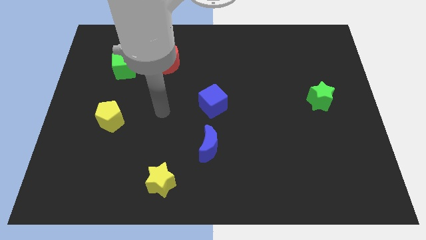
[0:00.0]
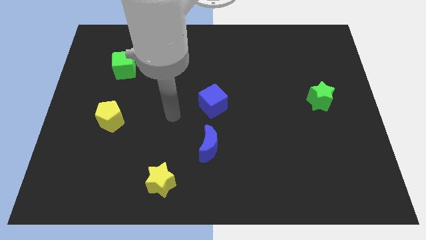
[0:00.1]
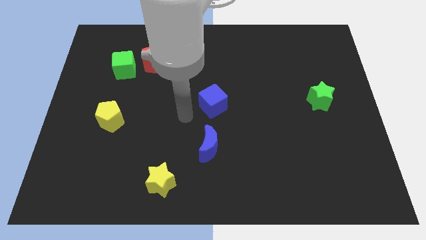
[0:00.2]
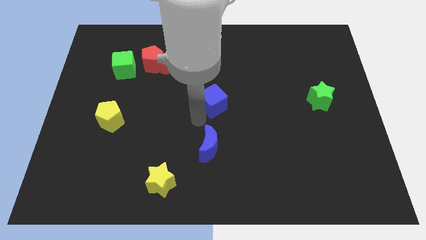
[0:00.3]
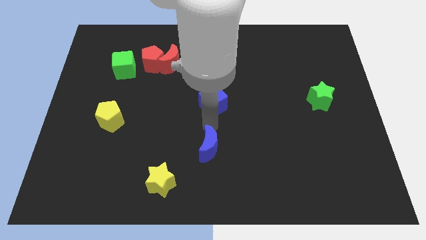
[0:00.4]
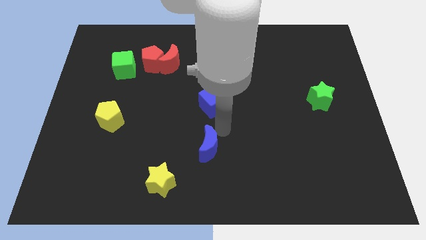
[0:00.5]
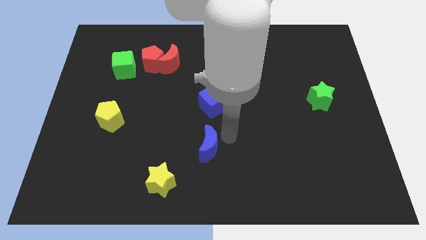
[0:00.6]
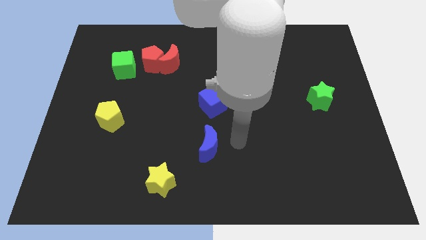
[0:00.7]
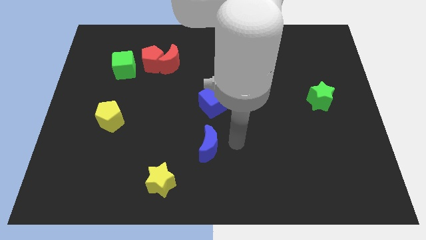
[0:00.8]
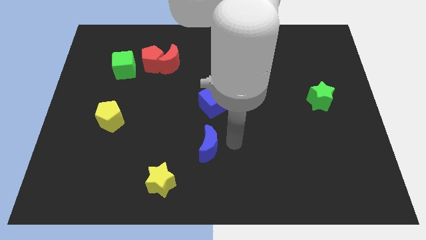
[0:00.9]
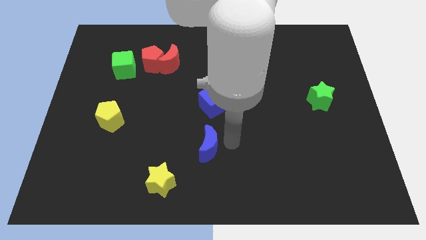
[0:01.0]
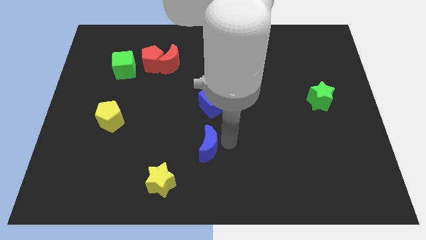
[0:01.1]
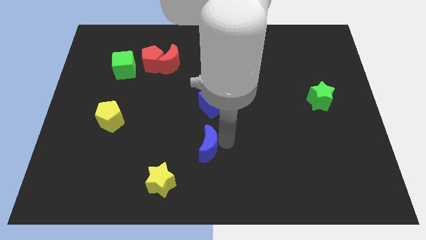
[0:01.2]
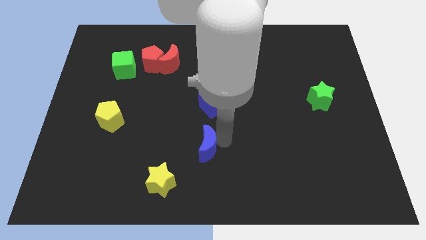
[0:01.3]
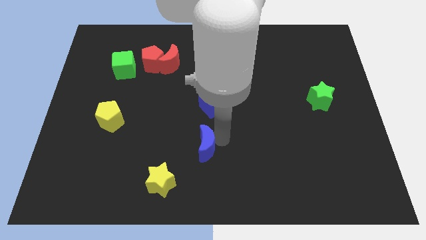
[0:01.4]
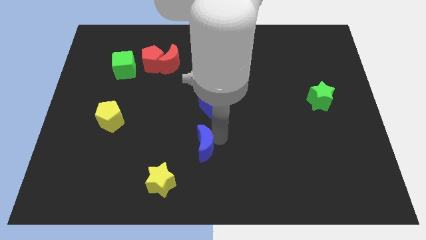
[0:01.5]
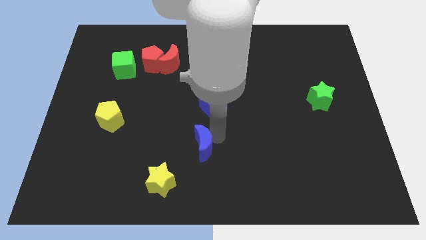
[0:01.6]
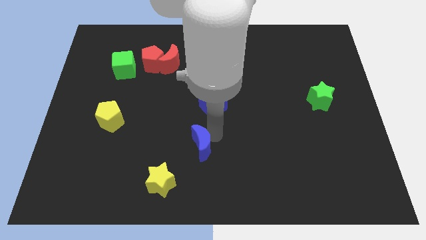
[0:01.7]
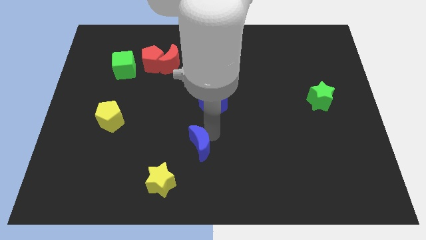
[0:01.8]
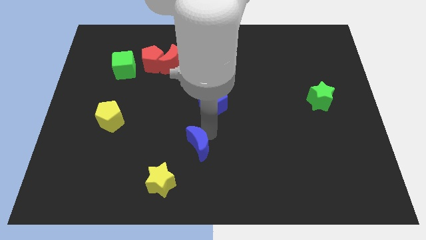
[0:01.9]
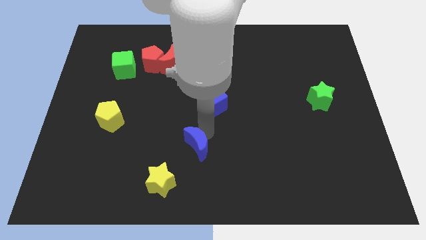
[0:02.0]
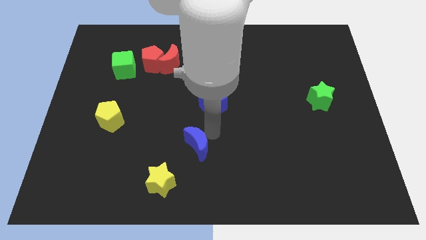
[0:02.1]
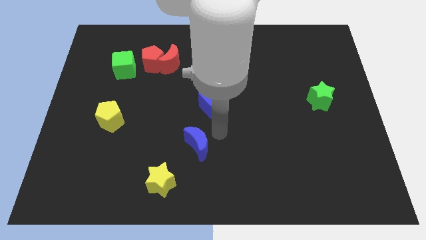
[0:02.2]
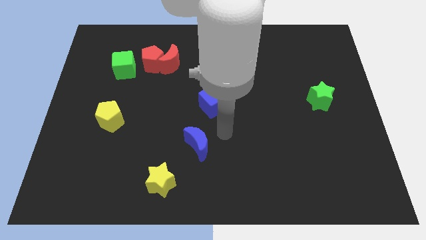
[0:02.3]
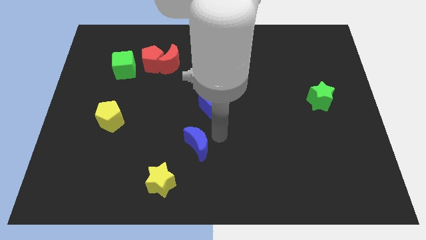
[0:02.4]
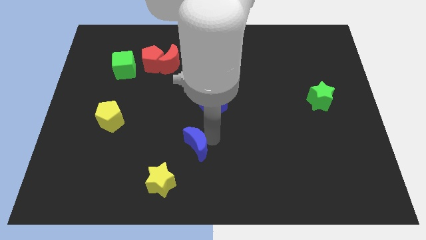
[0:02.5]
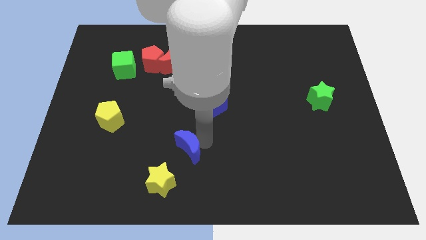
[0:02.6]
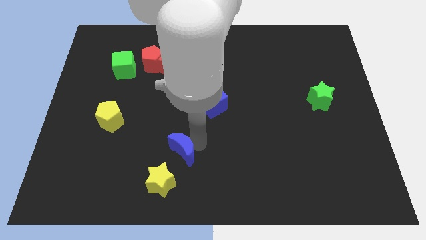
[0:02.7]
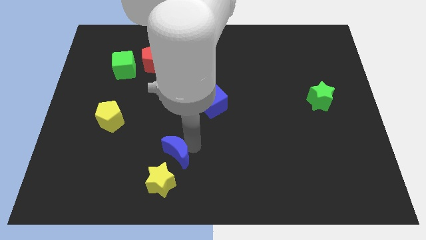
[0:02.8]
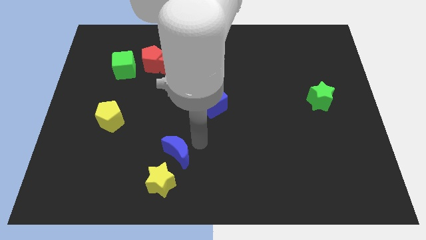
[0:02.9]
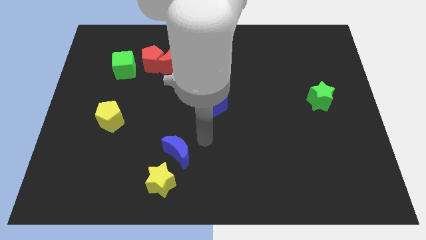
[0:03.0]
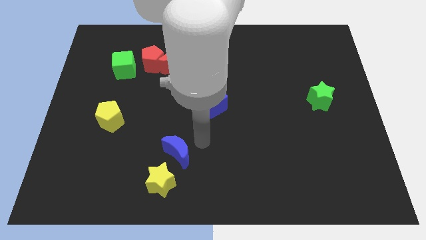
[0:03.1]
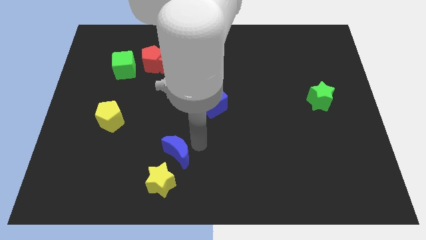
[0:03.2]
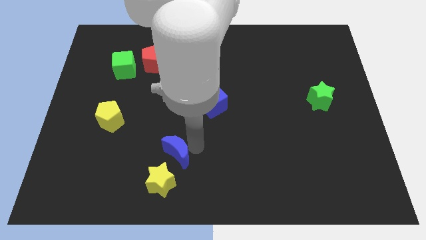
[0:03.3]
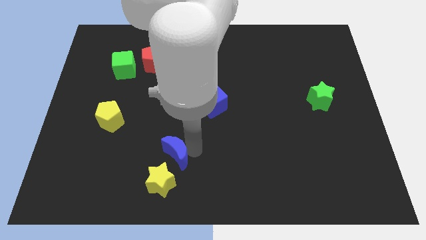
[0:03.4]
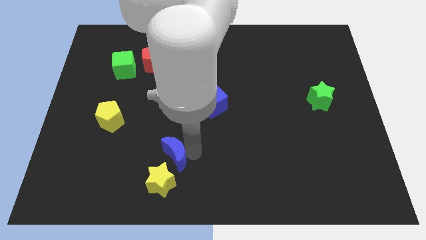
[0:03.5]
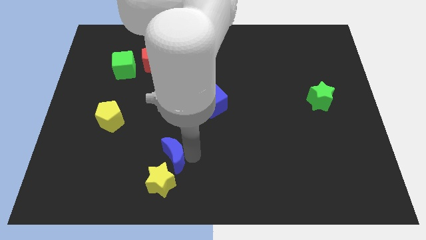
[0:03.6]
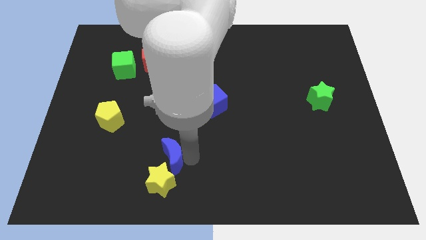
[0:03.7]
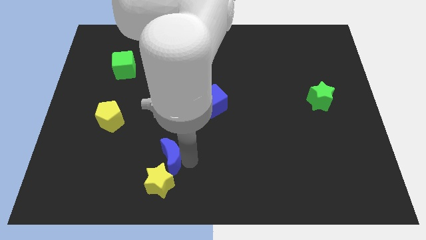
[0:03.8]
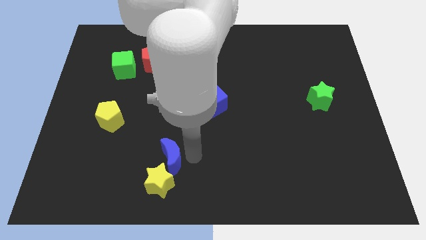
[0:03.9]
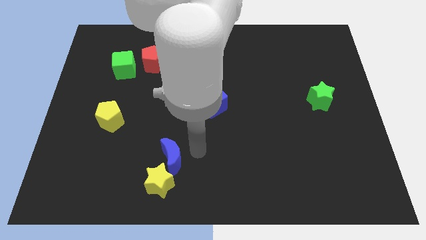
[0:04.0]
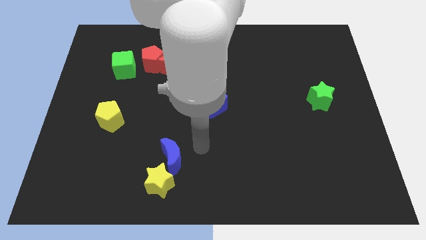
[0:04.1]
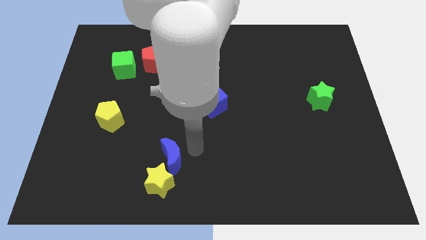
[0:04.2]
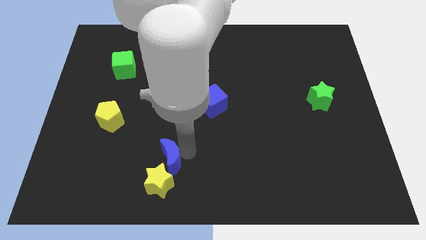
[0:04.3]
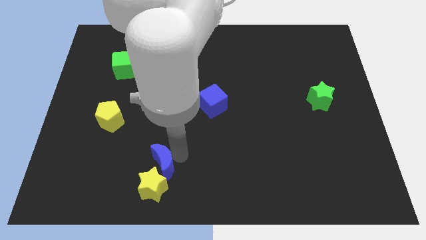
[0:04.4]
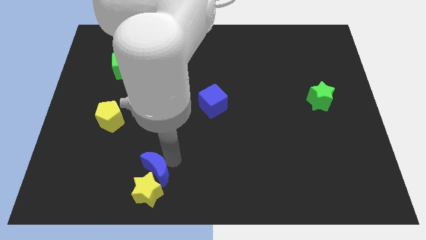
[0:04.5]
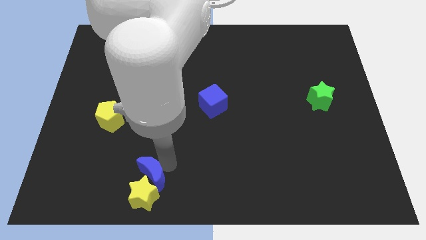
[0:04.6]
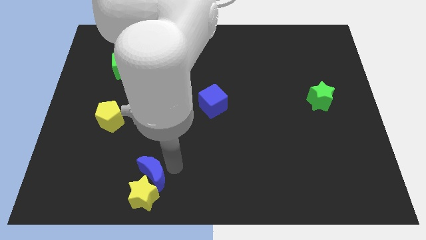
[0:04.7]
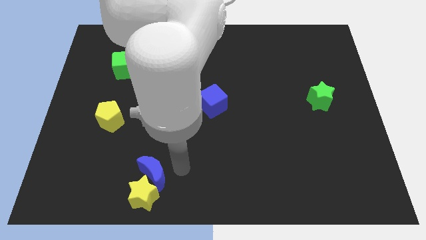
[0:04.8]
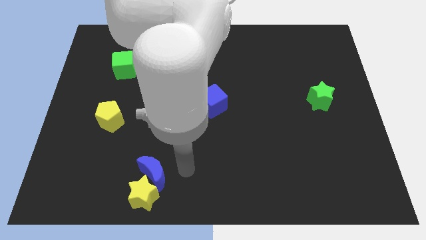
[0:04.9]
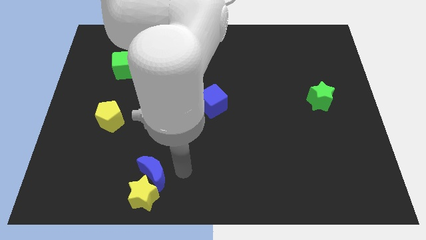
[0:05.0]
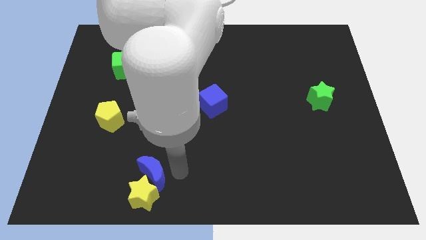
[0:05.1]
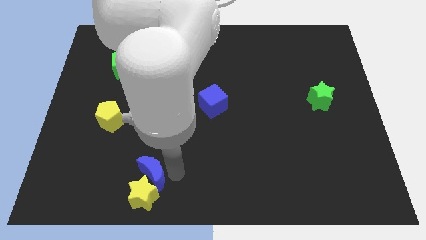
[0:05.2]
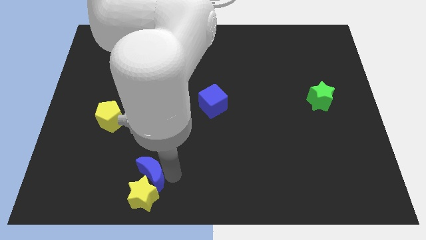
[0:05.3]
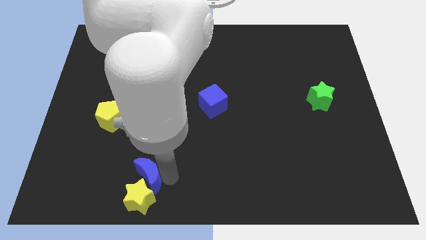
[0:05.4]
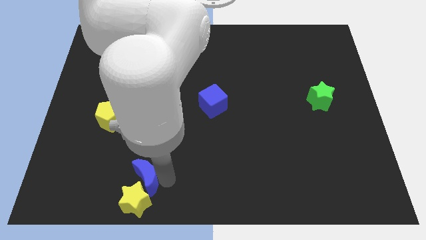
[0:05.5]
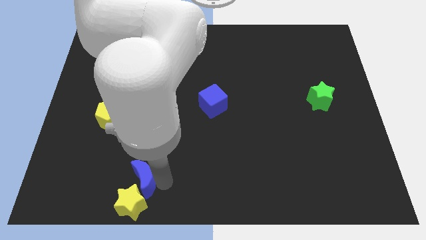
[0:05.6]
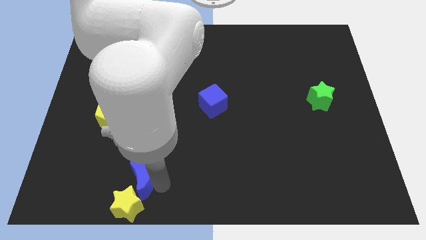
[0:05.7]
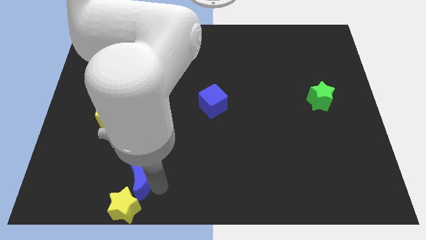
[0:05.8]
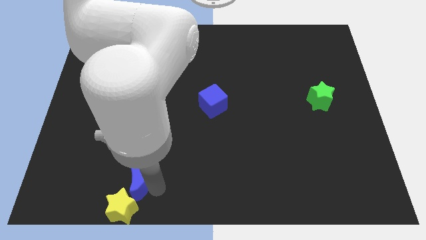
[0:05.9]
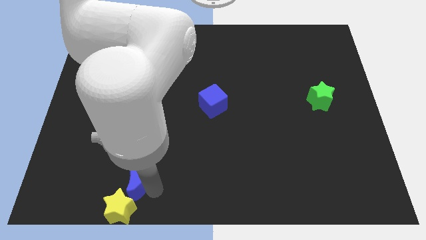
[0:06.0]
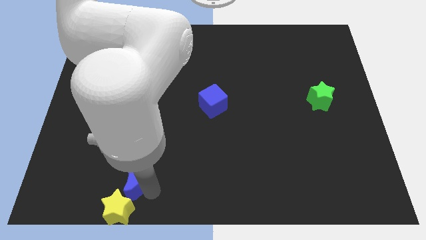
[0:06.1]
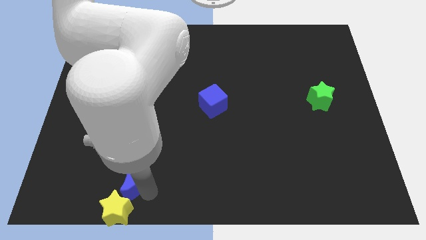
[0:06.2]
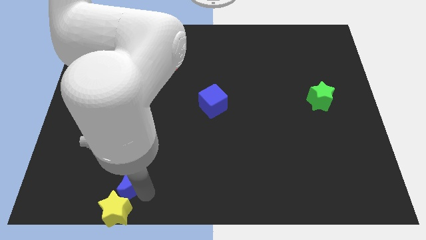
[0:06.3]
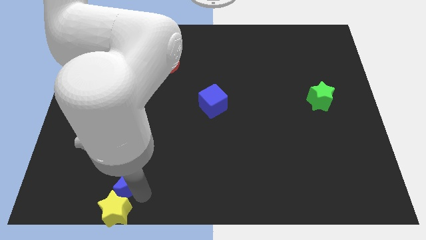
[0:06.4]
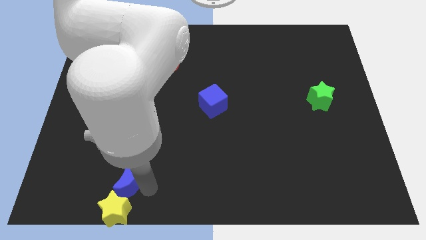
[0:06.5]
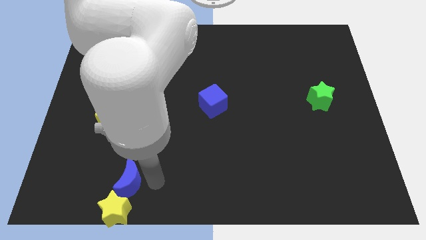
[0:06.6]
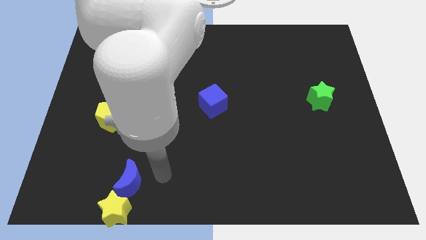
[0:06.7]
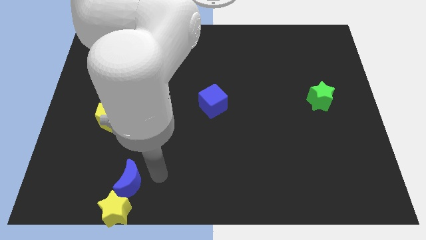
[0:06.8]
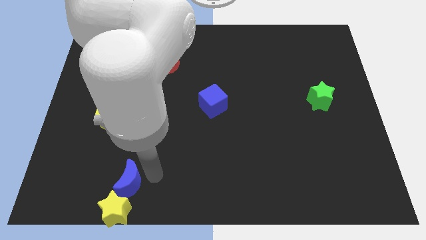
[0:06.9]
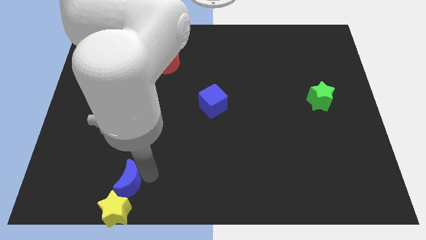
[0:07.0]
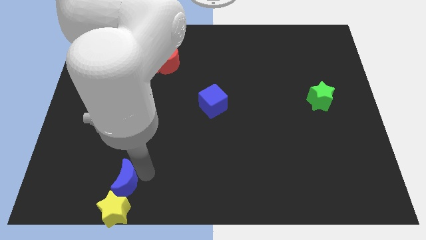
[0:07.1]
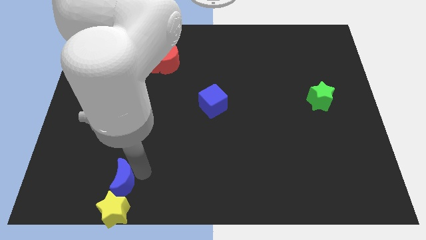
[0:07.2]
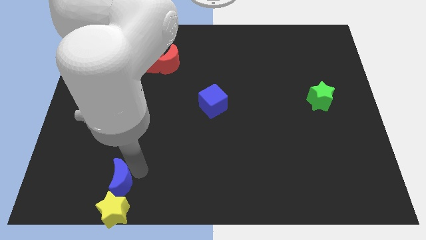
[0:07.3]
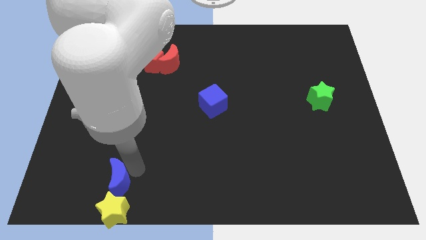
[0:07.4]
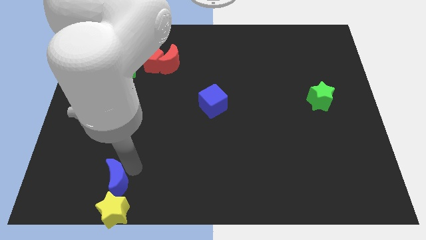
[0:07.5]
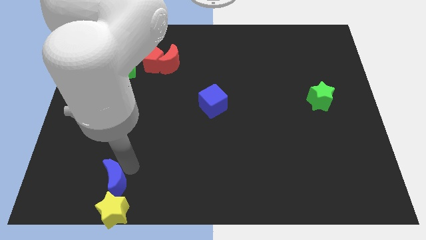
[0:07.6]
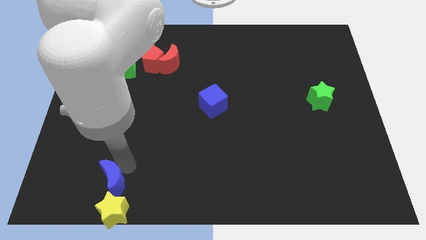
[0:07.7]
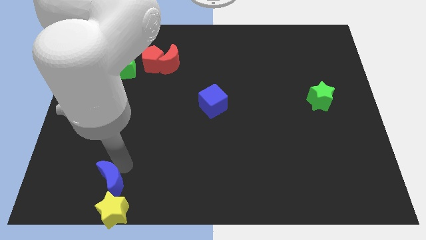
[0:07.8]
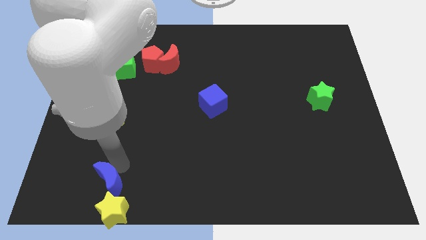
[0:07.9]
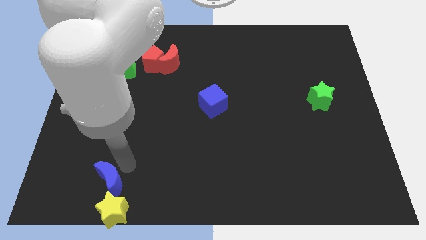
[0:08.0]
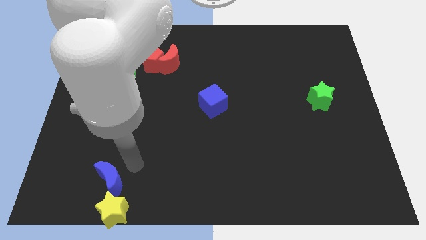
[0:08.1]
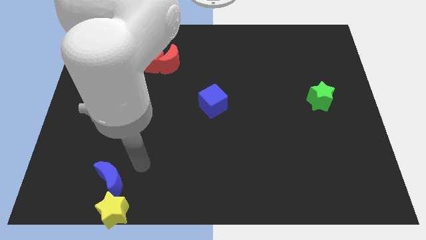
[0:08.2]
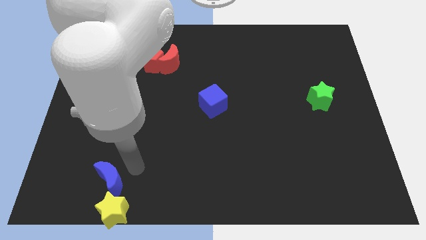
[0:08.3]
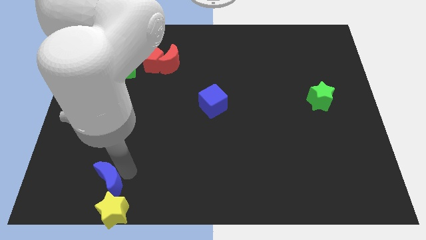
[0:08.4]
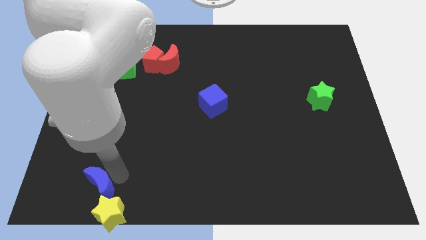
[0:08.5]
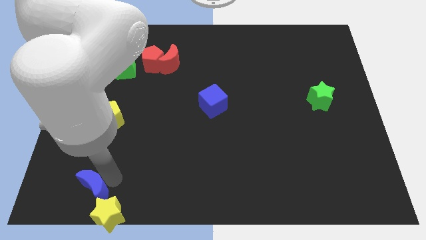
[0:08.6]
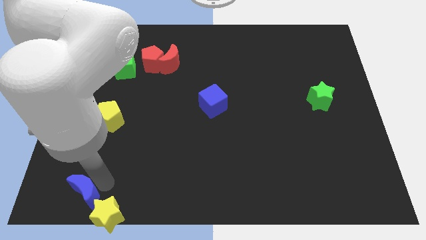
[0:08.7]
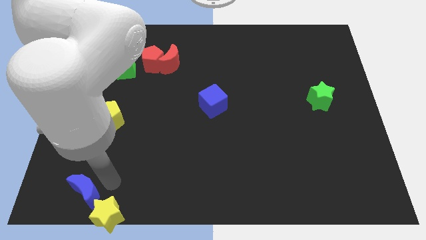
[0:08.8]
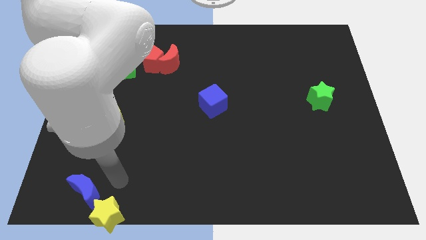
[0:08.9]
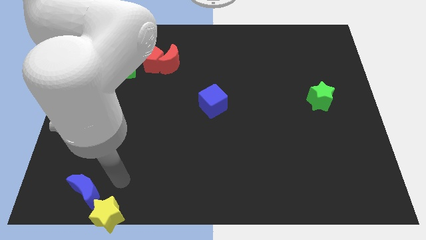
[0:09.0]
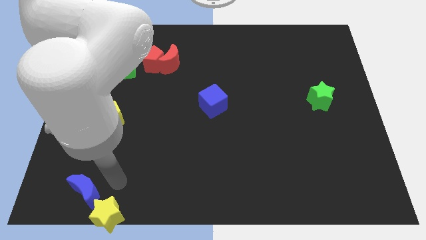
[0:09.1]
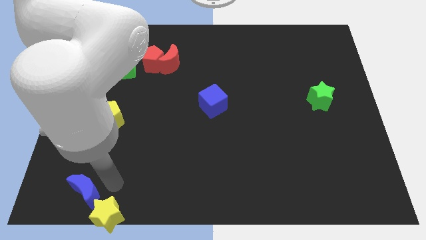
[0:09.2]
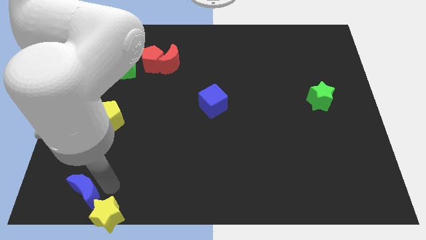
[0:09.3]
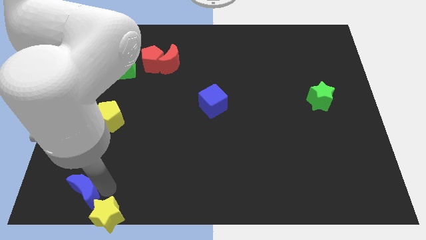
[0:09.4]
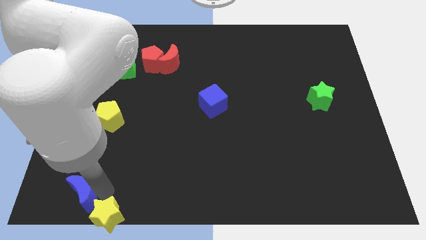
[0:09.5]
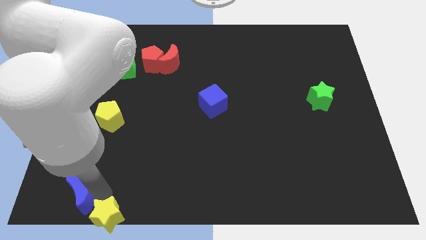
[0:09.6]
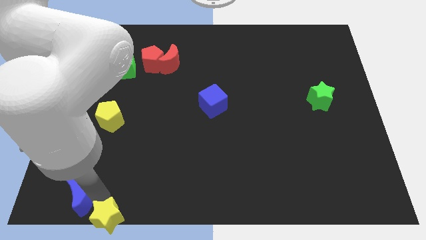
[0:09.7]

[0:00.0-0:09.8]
put the blue moon to the bottom left of the board
